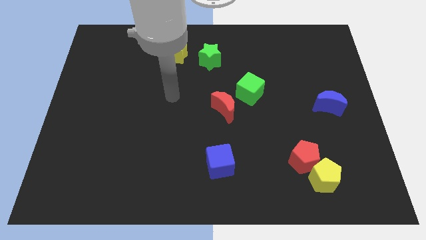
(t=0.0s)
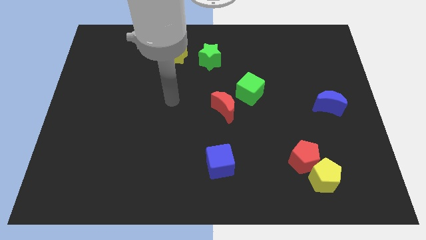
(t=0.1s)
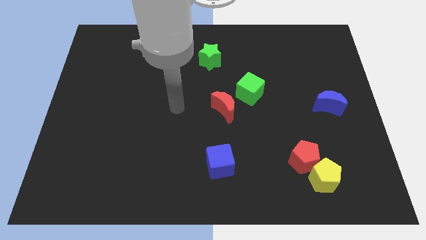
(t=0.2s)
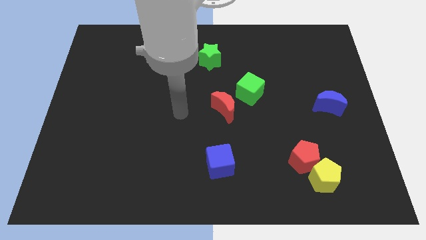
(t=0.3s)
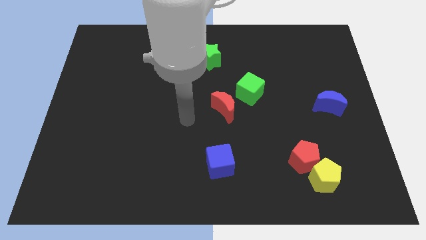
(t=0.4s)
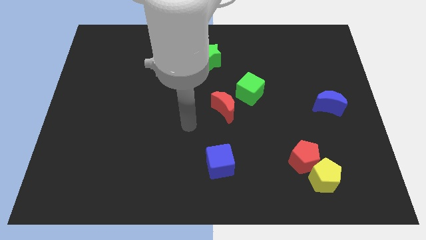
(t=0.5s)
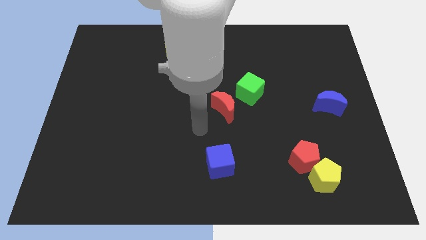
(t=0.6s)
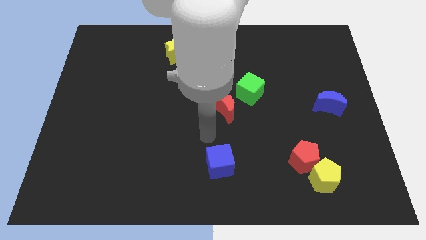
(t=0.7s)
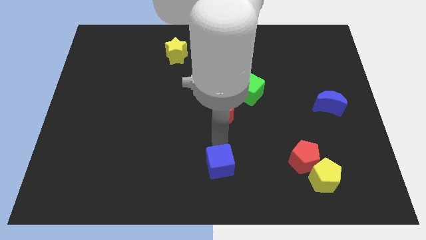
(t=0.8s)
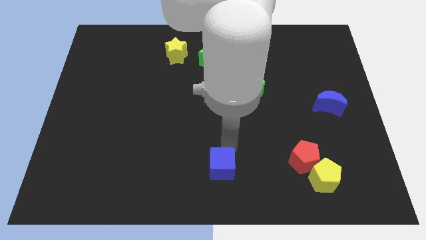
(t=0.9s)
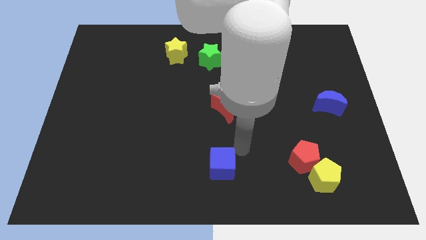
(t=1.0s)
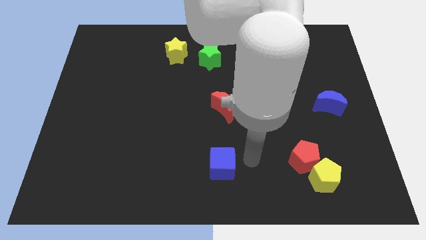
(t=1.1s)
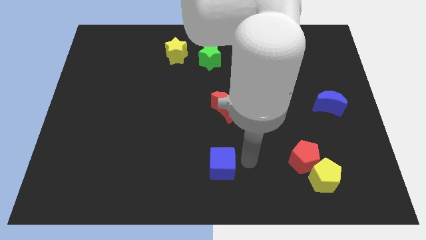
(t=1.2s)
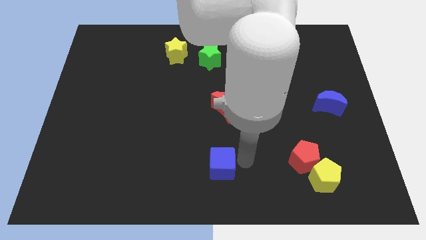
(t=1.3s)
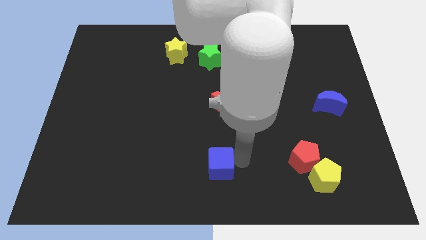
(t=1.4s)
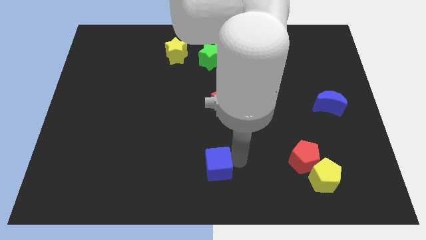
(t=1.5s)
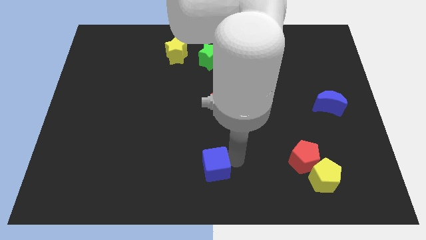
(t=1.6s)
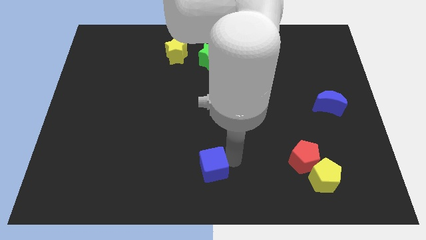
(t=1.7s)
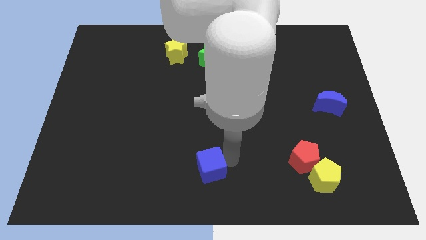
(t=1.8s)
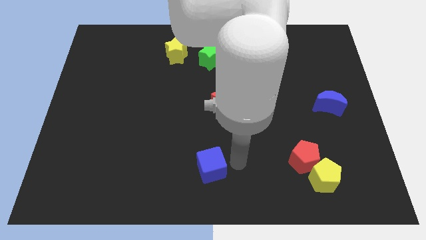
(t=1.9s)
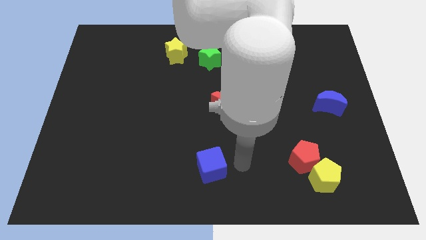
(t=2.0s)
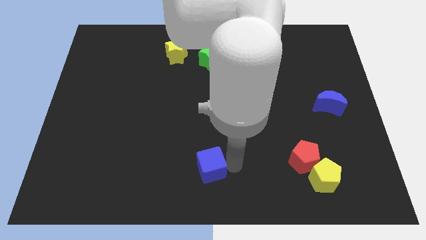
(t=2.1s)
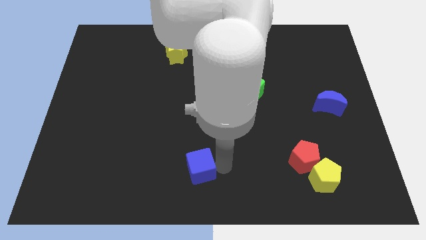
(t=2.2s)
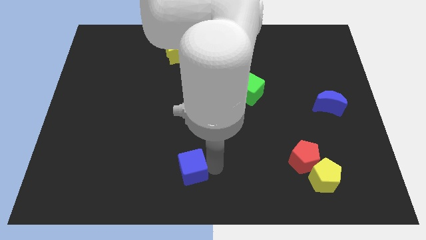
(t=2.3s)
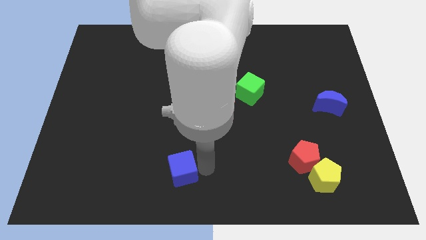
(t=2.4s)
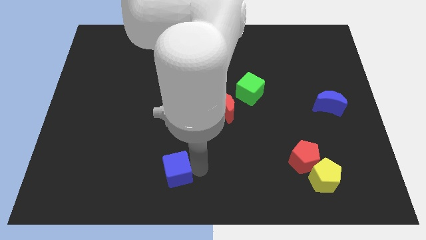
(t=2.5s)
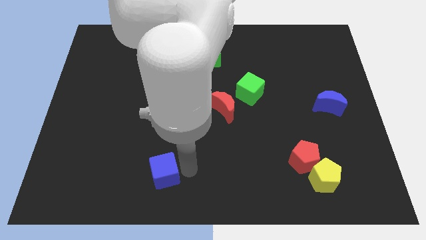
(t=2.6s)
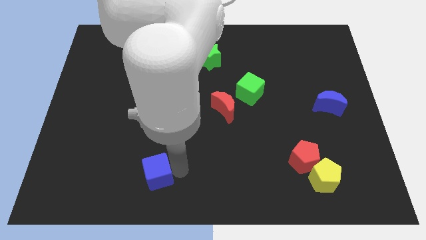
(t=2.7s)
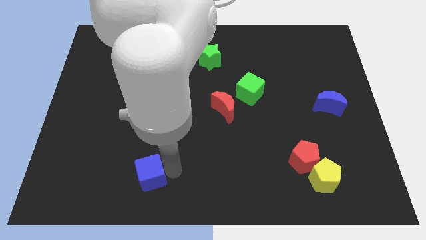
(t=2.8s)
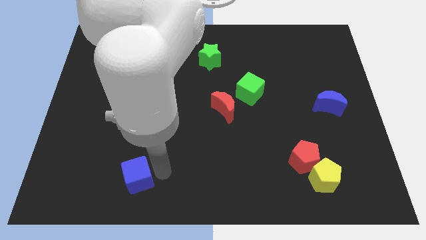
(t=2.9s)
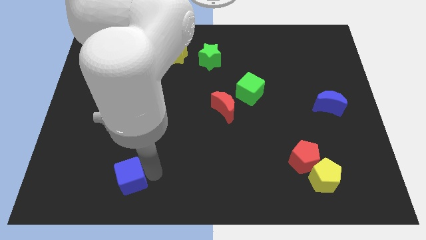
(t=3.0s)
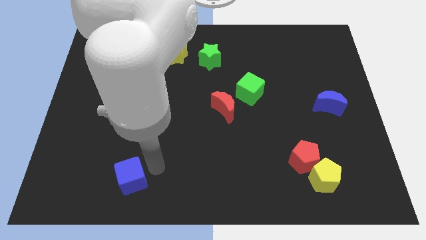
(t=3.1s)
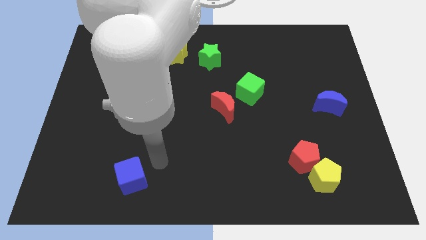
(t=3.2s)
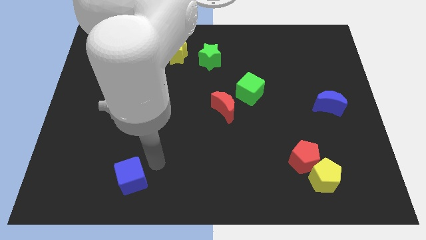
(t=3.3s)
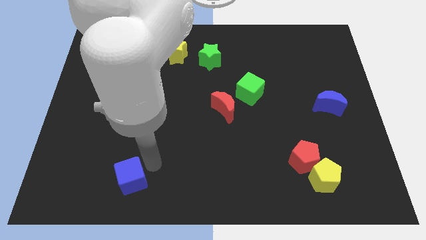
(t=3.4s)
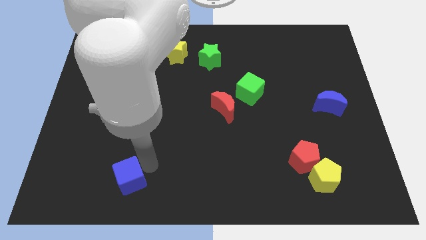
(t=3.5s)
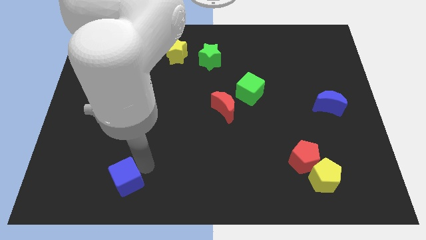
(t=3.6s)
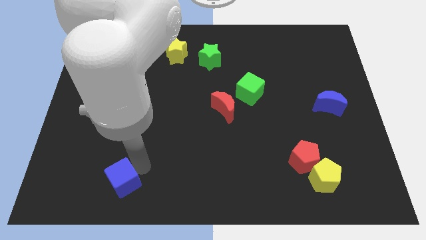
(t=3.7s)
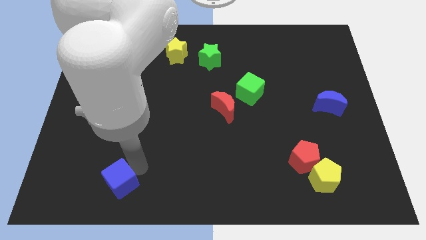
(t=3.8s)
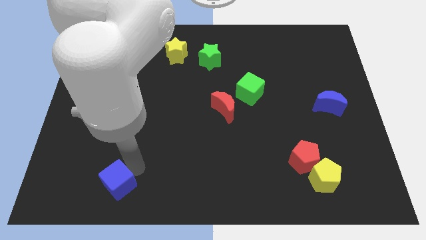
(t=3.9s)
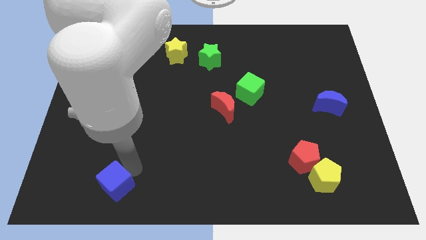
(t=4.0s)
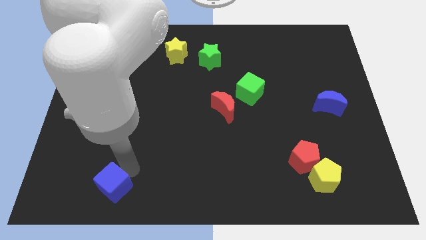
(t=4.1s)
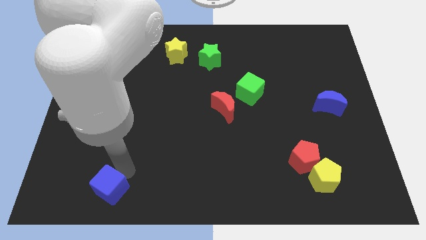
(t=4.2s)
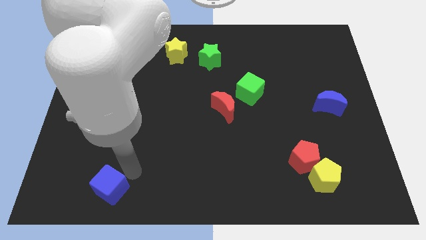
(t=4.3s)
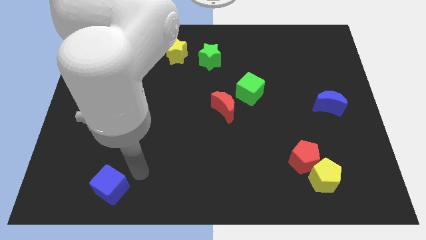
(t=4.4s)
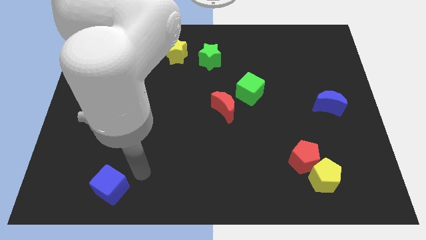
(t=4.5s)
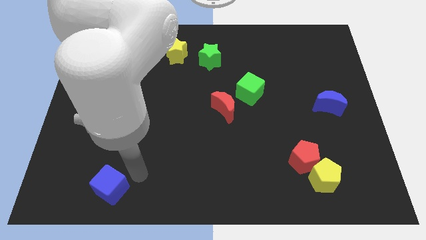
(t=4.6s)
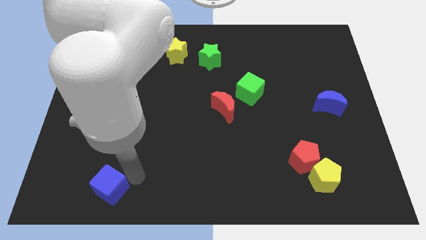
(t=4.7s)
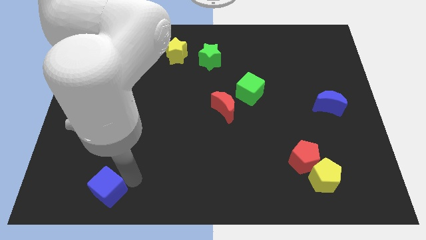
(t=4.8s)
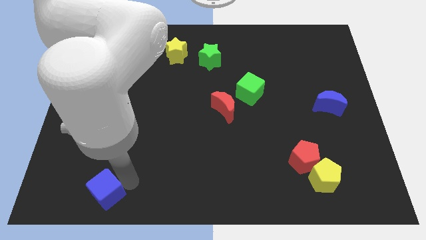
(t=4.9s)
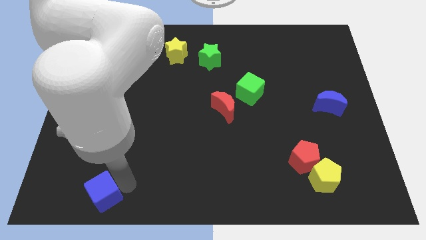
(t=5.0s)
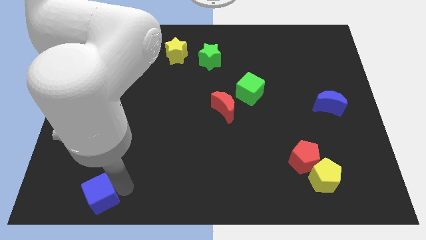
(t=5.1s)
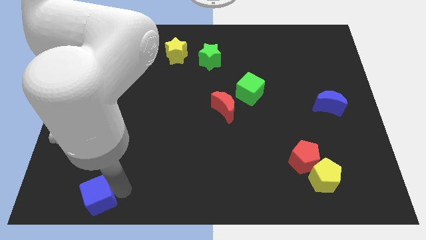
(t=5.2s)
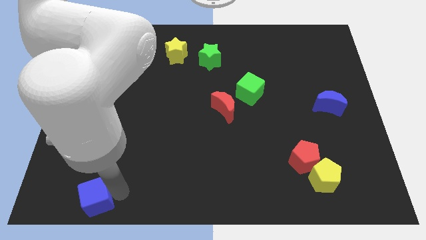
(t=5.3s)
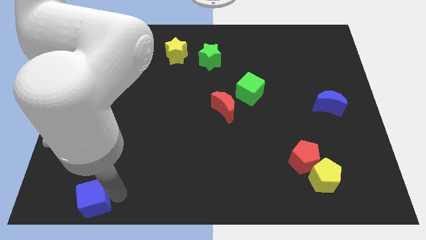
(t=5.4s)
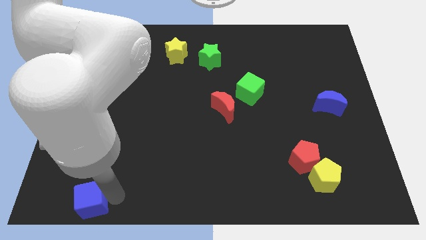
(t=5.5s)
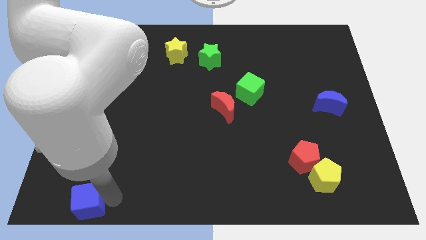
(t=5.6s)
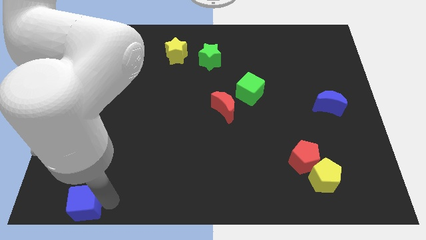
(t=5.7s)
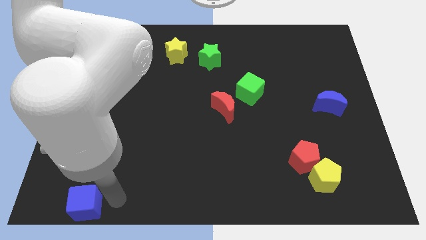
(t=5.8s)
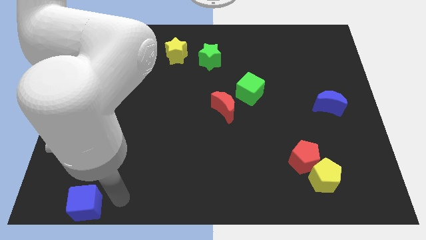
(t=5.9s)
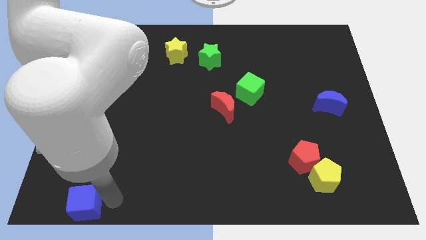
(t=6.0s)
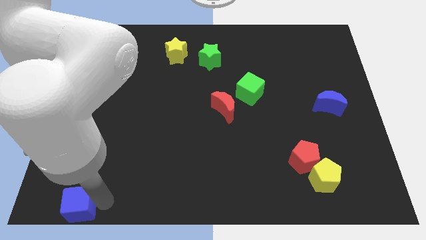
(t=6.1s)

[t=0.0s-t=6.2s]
move the blue cube to the bottom left corner

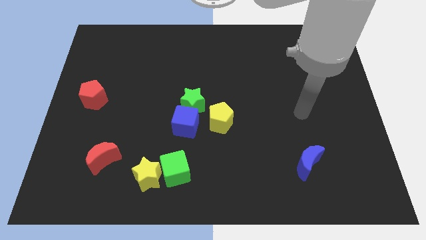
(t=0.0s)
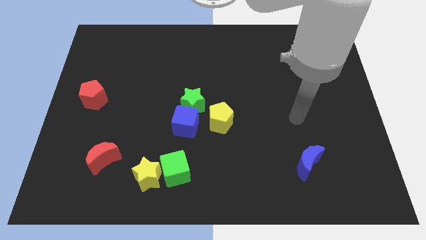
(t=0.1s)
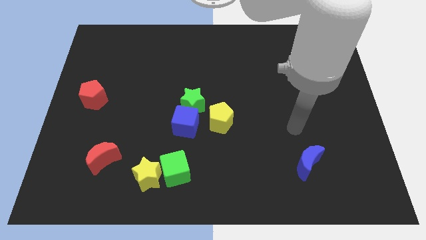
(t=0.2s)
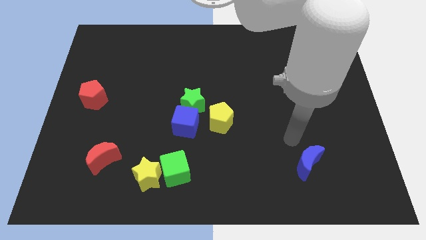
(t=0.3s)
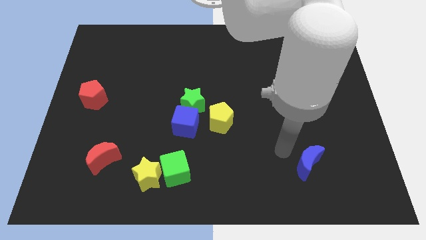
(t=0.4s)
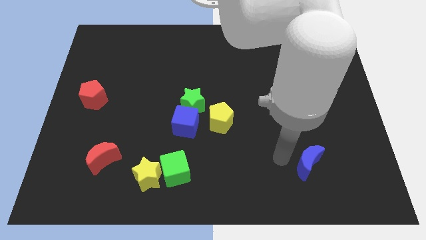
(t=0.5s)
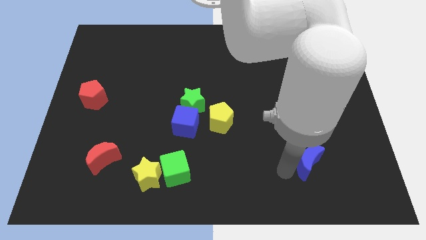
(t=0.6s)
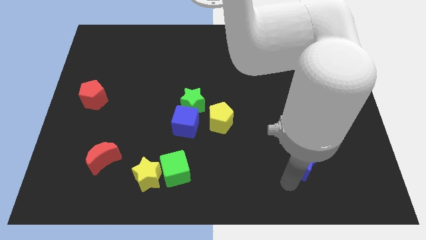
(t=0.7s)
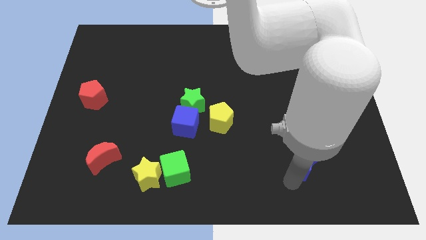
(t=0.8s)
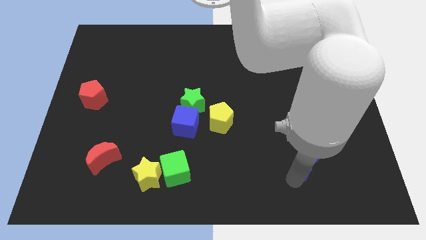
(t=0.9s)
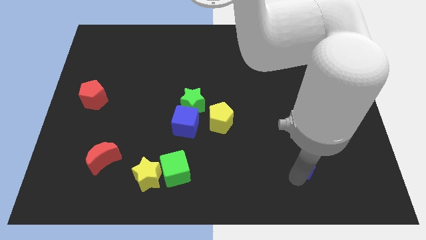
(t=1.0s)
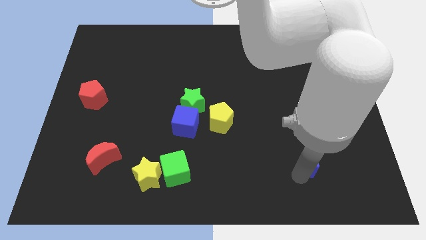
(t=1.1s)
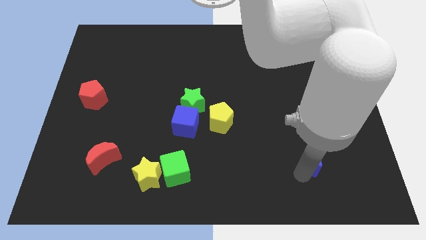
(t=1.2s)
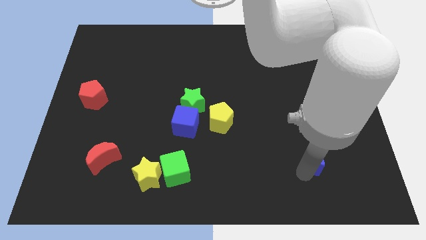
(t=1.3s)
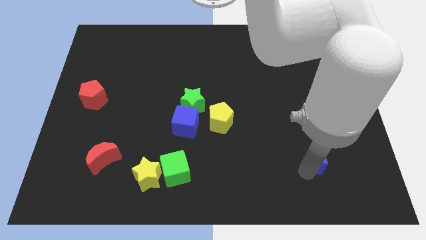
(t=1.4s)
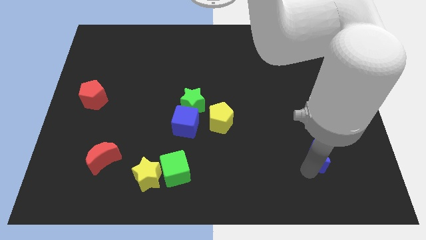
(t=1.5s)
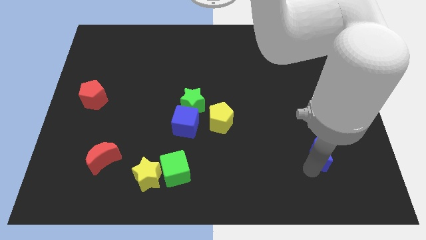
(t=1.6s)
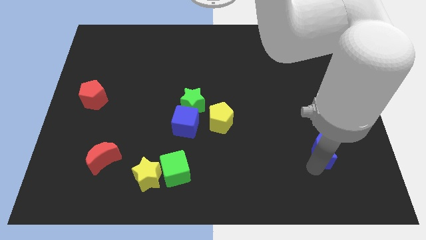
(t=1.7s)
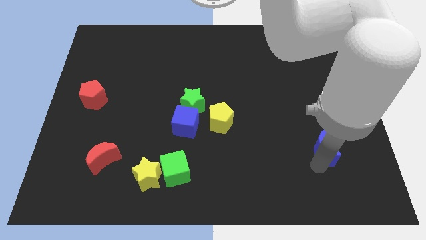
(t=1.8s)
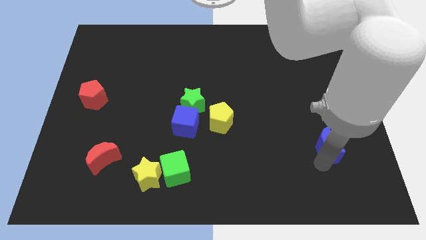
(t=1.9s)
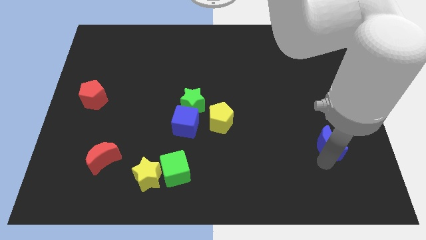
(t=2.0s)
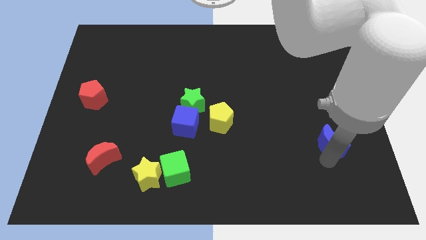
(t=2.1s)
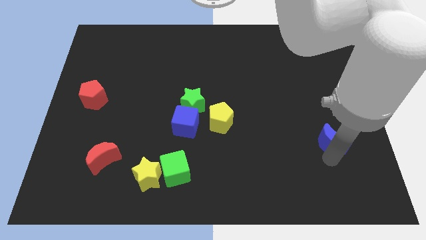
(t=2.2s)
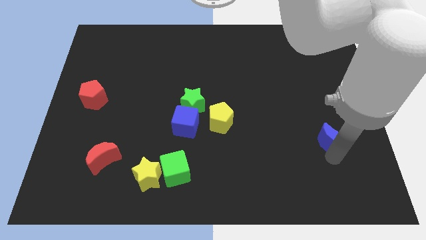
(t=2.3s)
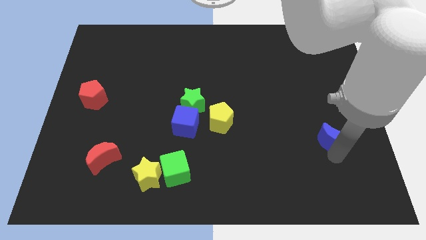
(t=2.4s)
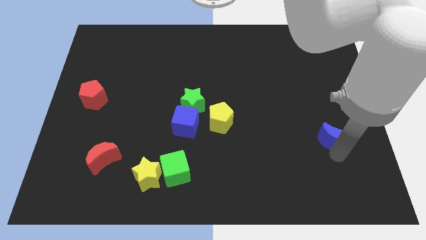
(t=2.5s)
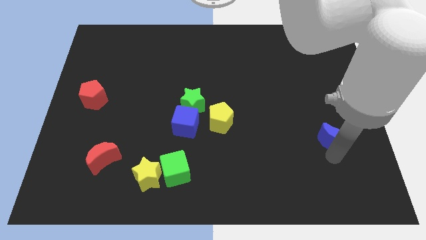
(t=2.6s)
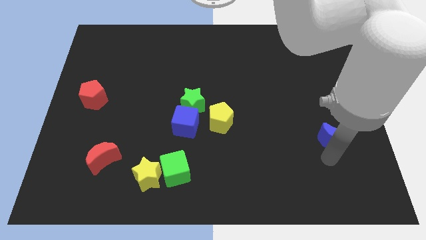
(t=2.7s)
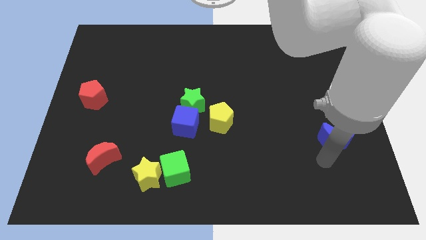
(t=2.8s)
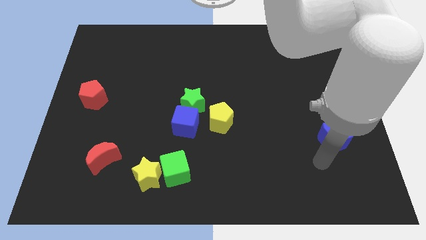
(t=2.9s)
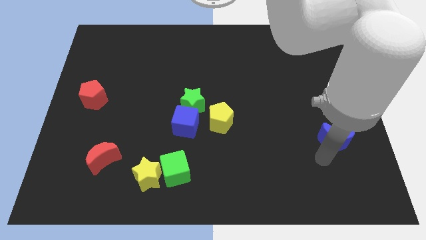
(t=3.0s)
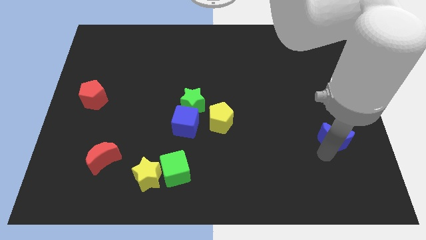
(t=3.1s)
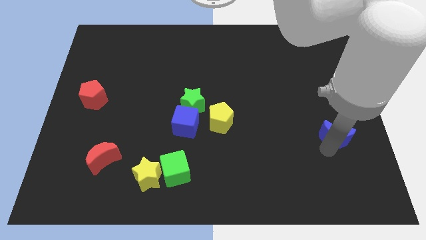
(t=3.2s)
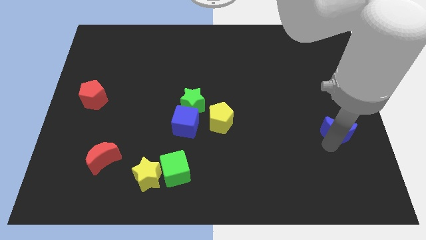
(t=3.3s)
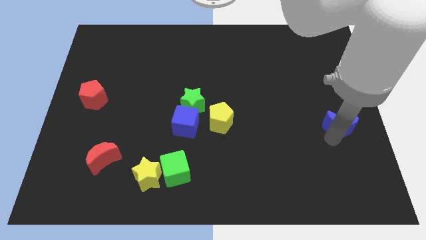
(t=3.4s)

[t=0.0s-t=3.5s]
put the blue moon to the center right
